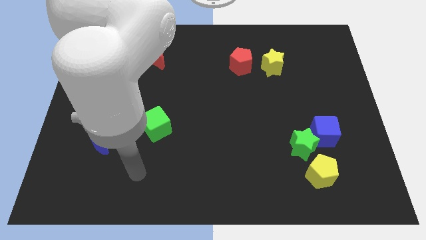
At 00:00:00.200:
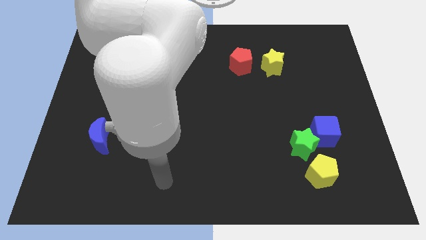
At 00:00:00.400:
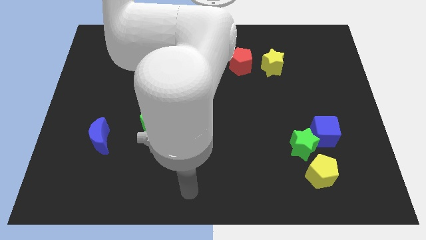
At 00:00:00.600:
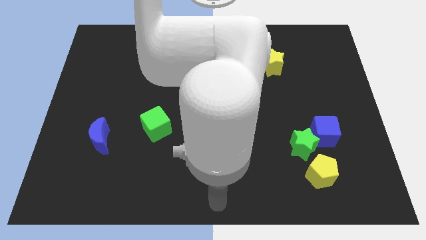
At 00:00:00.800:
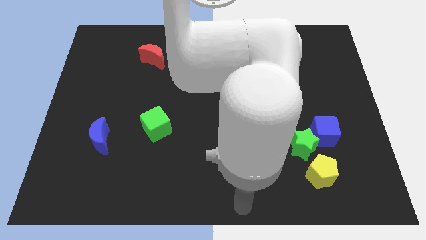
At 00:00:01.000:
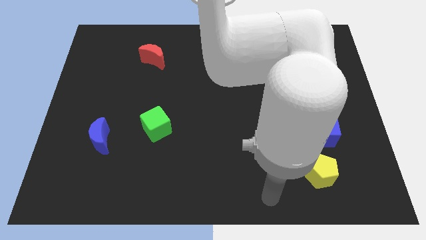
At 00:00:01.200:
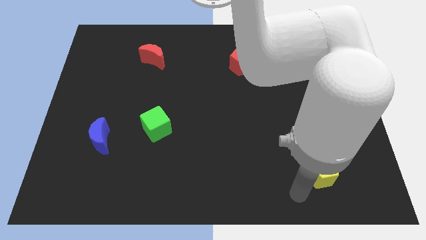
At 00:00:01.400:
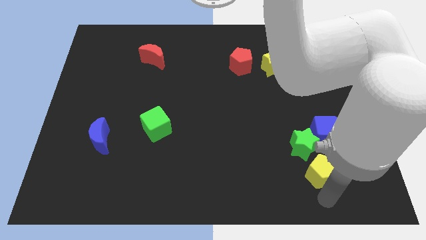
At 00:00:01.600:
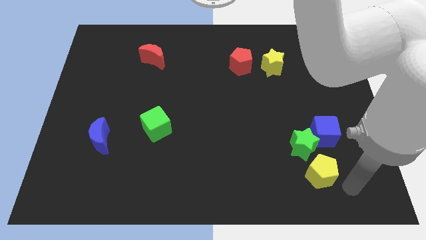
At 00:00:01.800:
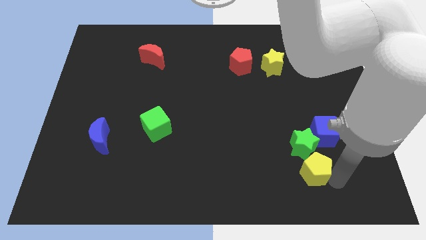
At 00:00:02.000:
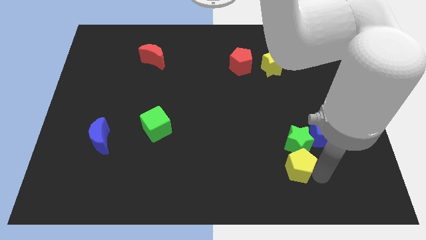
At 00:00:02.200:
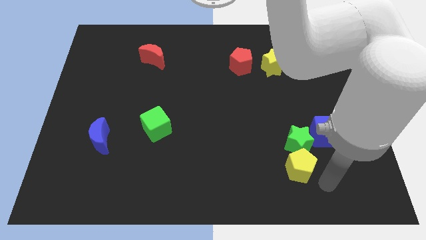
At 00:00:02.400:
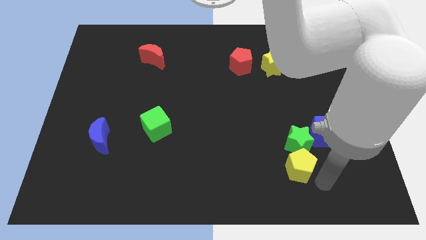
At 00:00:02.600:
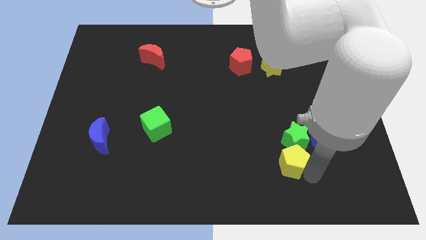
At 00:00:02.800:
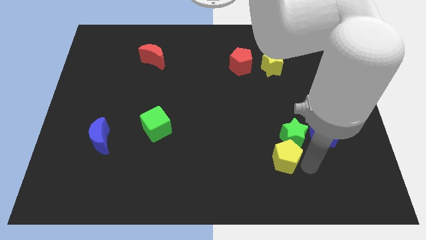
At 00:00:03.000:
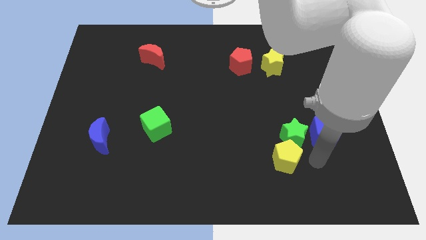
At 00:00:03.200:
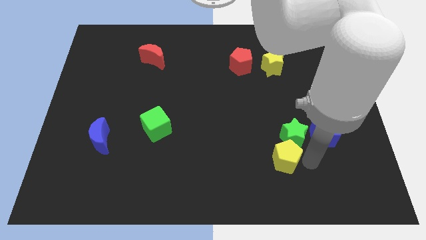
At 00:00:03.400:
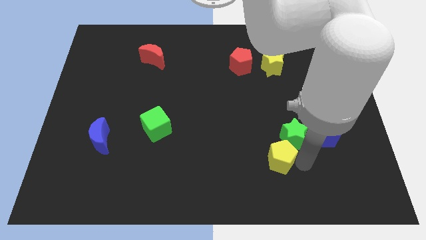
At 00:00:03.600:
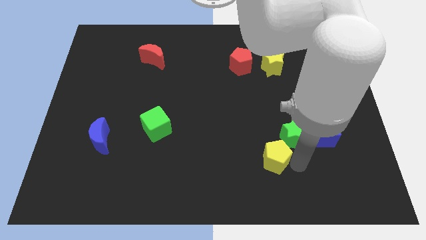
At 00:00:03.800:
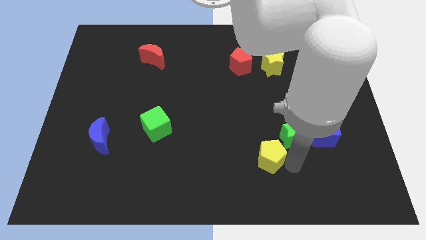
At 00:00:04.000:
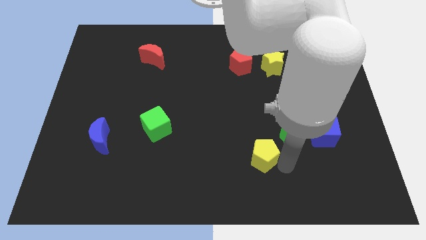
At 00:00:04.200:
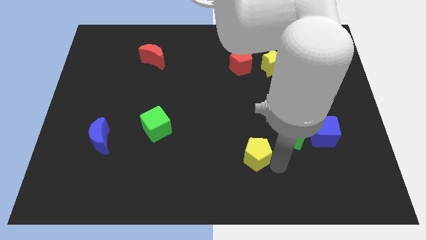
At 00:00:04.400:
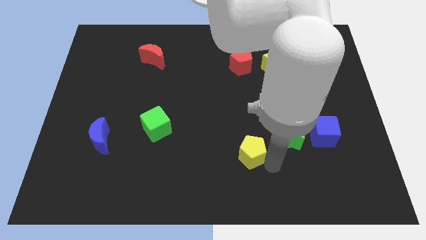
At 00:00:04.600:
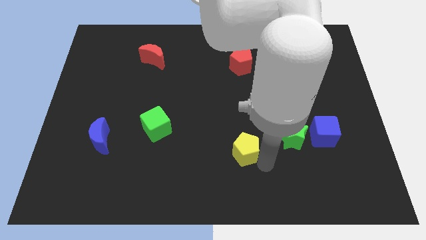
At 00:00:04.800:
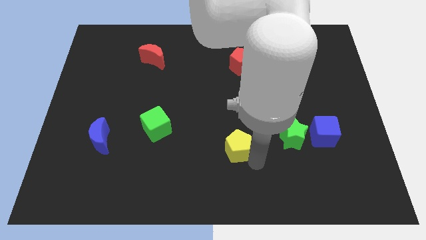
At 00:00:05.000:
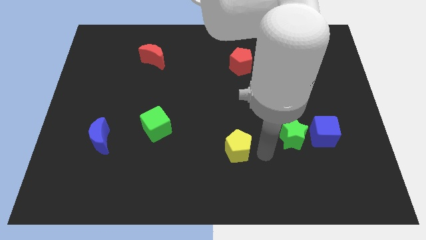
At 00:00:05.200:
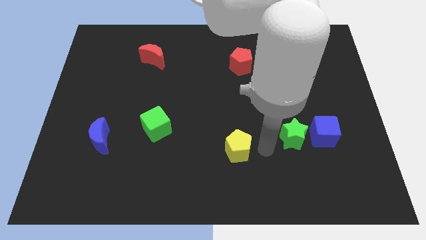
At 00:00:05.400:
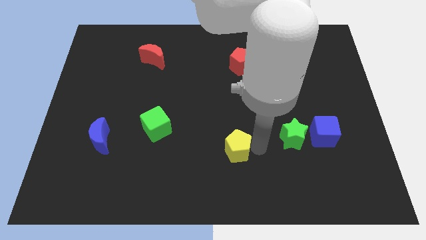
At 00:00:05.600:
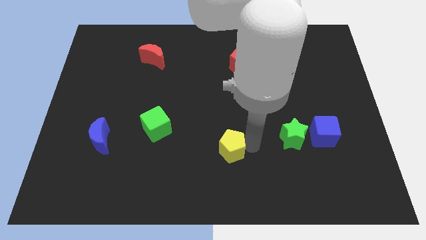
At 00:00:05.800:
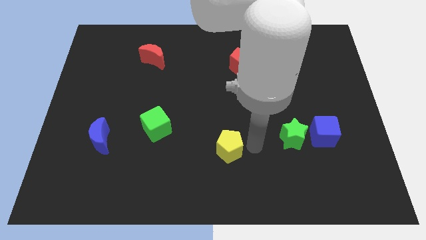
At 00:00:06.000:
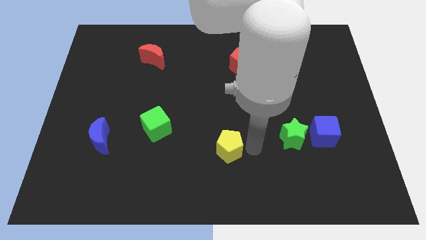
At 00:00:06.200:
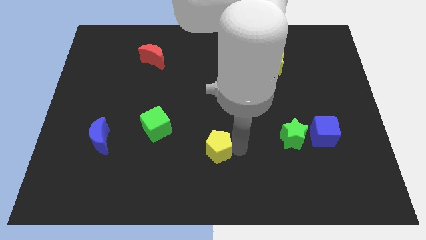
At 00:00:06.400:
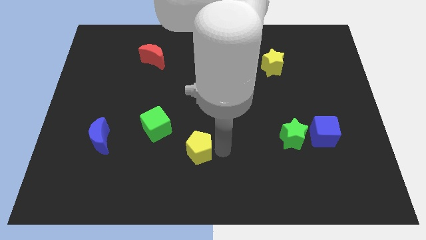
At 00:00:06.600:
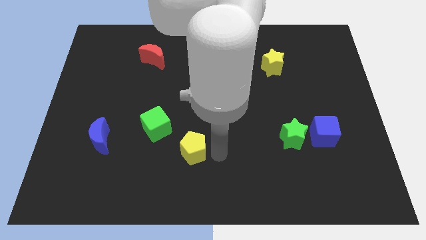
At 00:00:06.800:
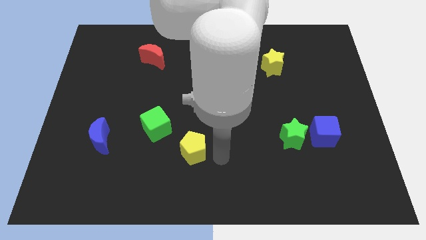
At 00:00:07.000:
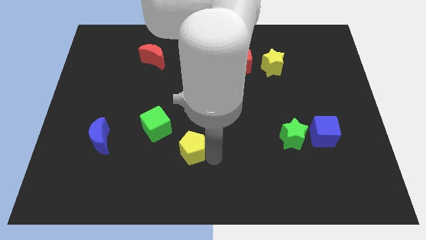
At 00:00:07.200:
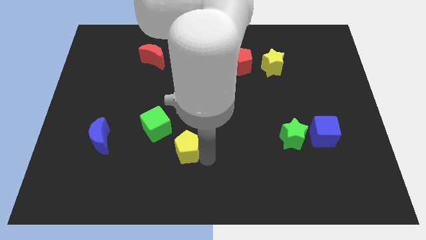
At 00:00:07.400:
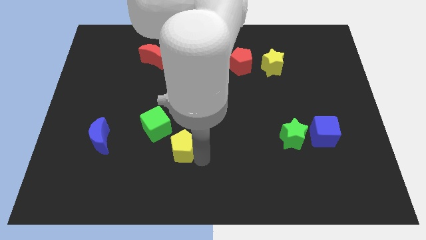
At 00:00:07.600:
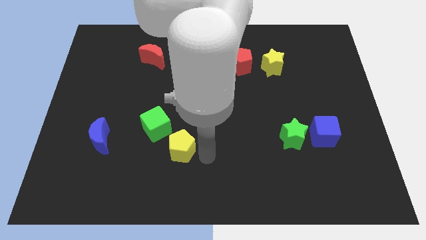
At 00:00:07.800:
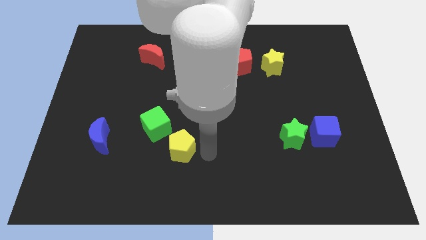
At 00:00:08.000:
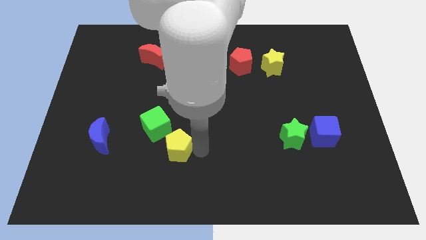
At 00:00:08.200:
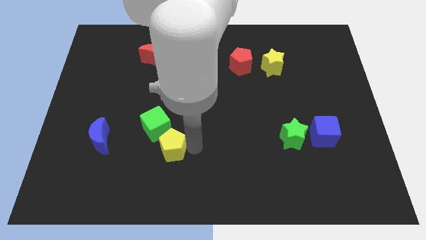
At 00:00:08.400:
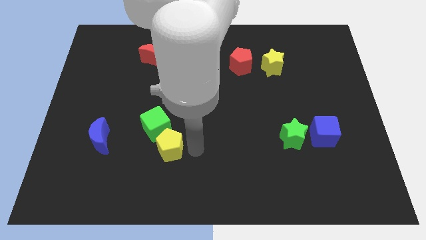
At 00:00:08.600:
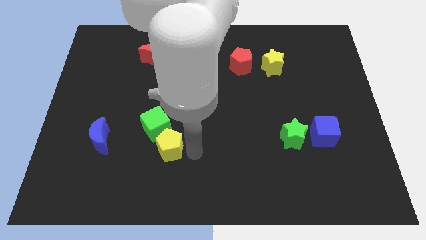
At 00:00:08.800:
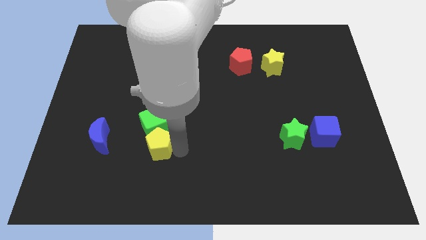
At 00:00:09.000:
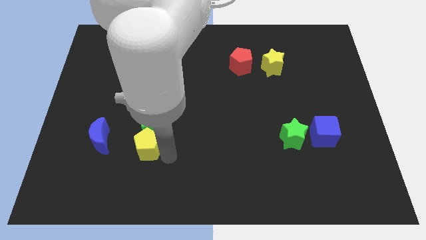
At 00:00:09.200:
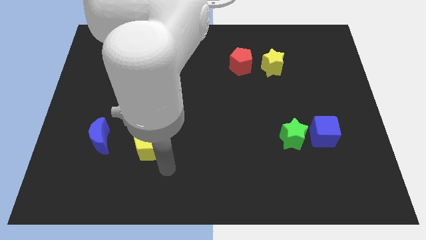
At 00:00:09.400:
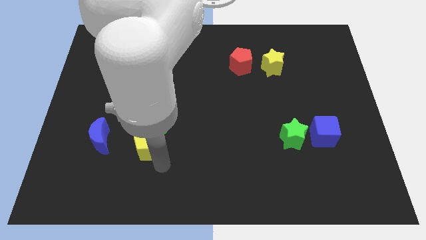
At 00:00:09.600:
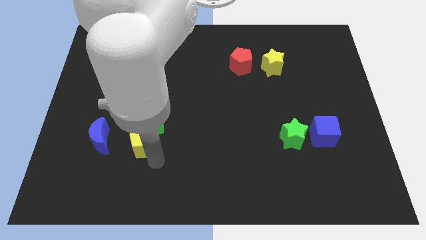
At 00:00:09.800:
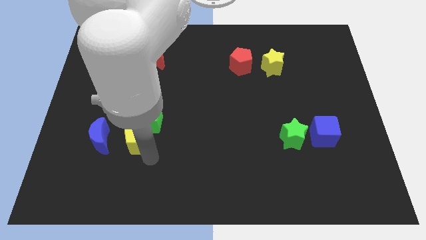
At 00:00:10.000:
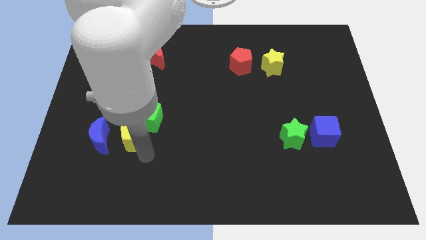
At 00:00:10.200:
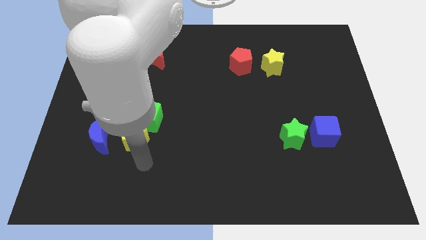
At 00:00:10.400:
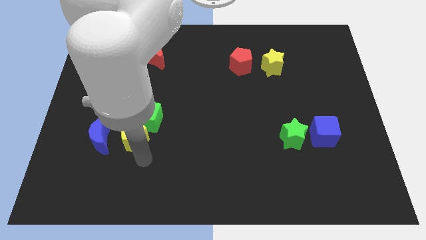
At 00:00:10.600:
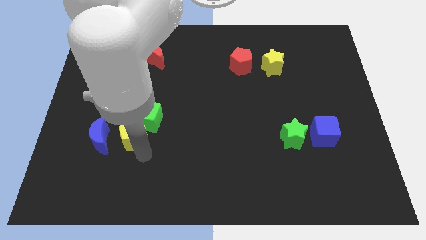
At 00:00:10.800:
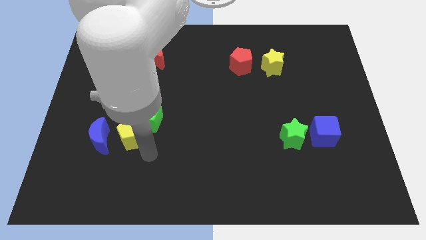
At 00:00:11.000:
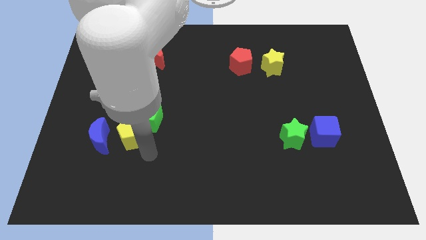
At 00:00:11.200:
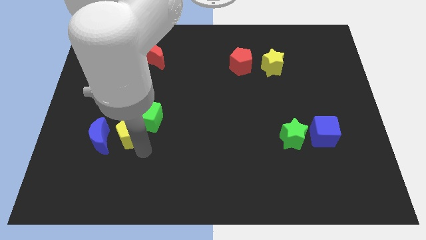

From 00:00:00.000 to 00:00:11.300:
slide the yellow pentagon to the left side of the green cube

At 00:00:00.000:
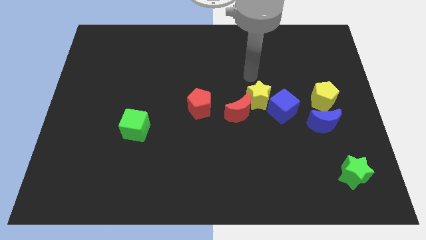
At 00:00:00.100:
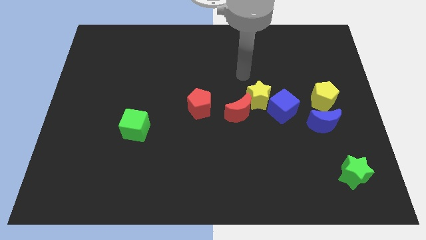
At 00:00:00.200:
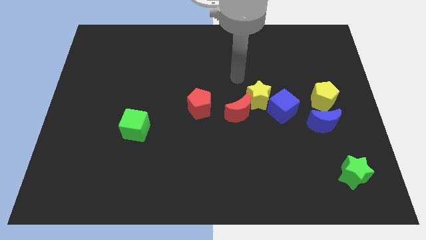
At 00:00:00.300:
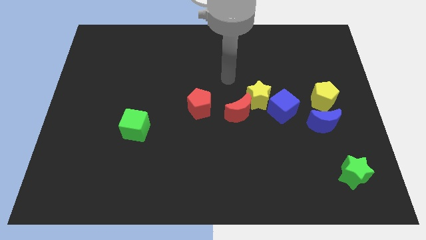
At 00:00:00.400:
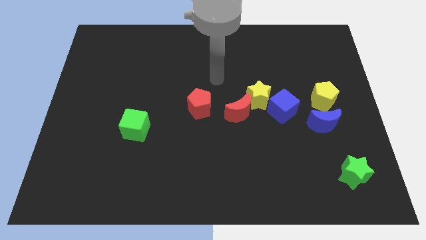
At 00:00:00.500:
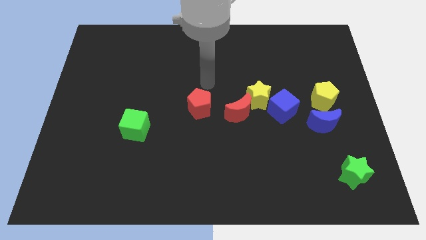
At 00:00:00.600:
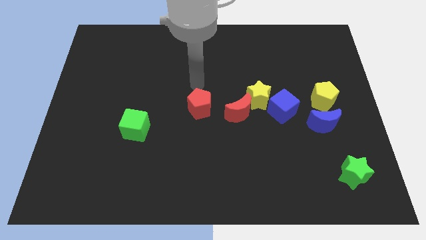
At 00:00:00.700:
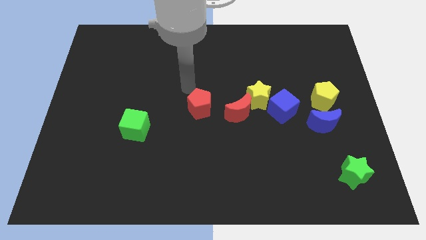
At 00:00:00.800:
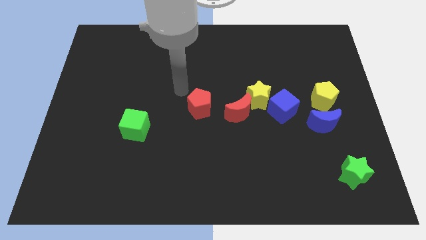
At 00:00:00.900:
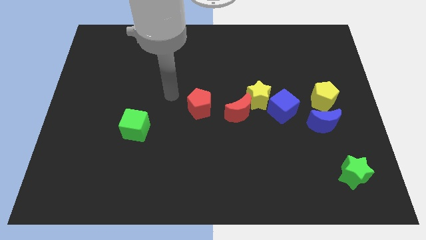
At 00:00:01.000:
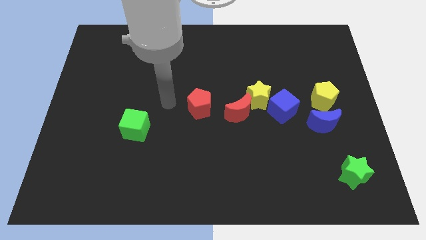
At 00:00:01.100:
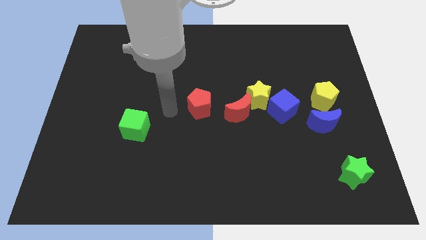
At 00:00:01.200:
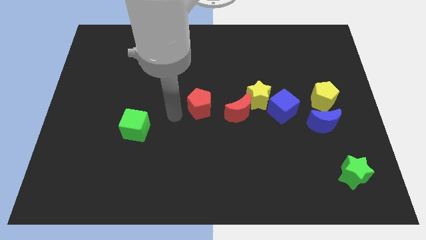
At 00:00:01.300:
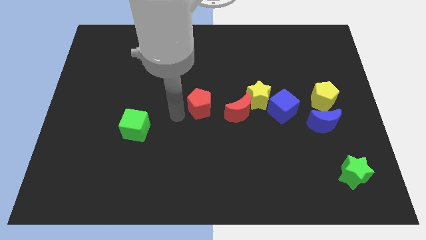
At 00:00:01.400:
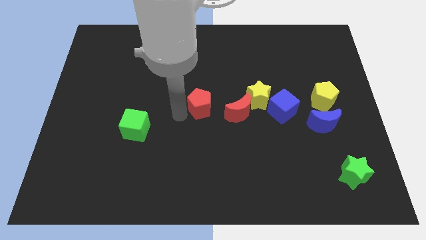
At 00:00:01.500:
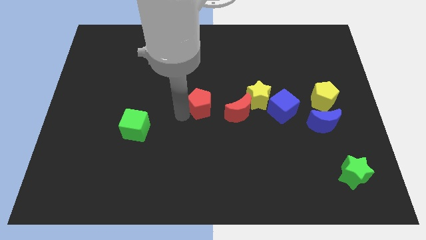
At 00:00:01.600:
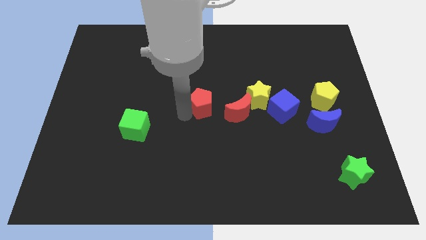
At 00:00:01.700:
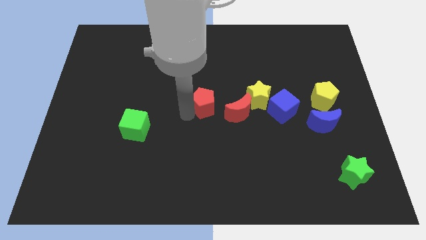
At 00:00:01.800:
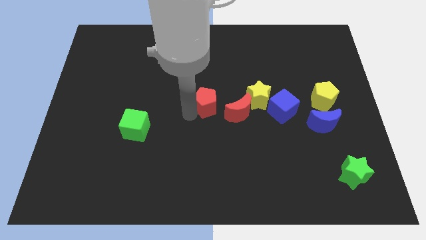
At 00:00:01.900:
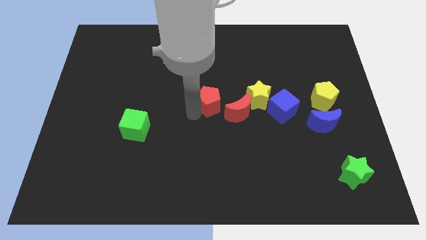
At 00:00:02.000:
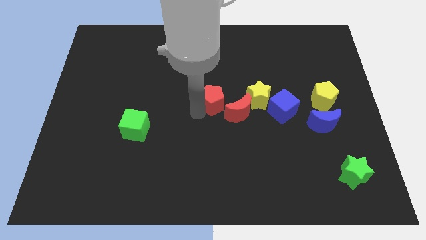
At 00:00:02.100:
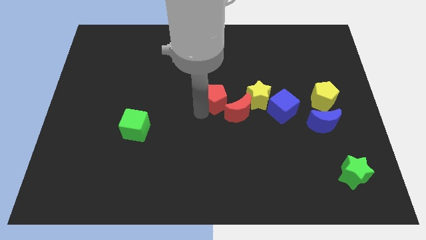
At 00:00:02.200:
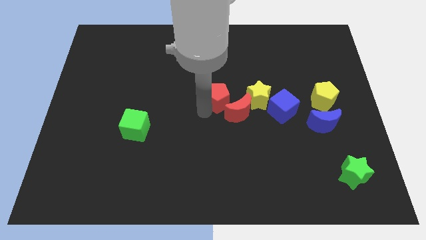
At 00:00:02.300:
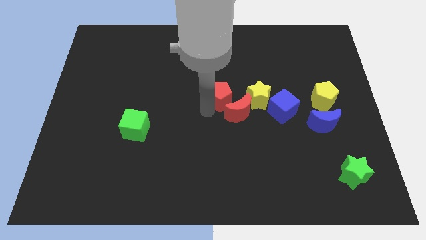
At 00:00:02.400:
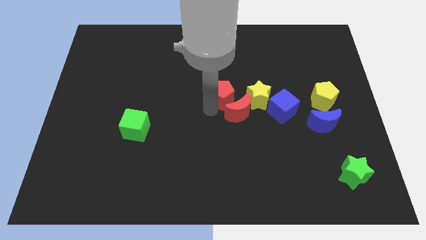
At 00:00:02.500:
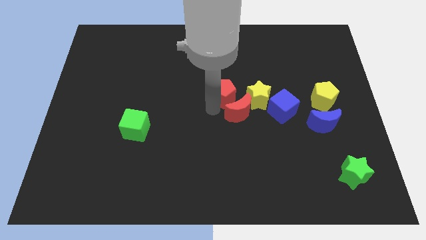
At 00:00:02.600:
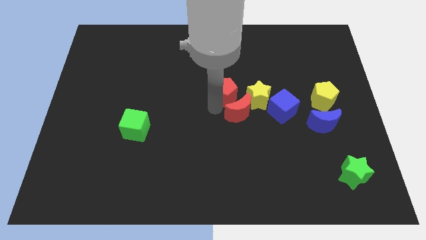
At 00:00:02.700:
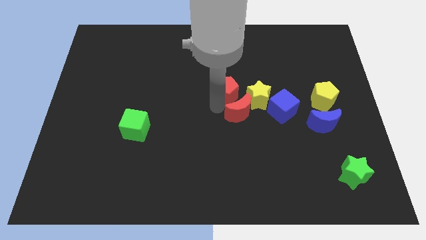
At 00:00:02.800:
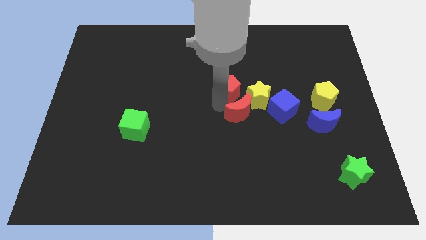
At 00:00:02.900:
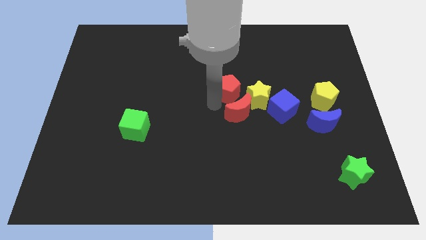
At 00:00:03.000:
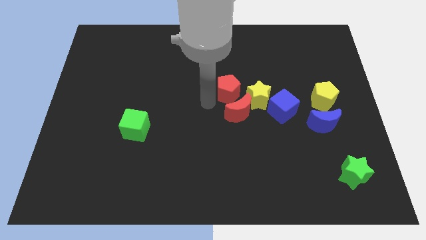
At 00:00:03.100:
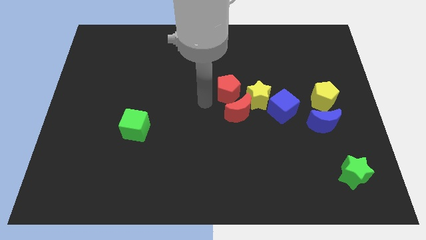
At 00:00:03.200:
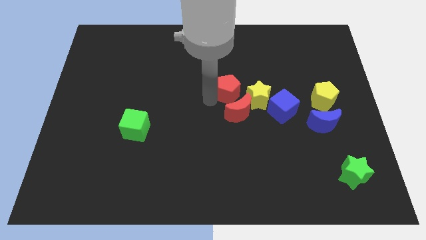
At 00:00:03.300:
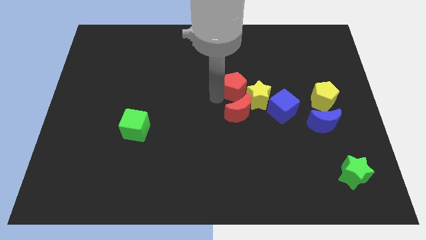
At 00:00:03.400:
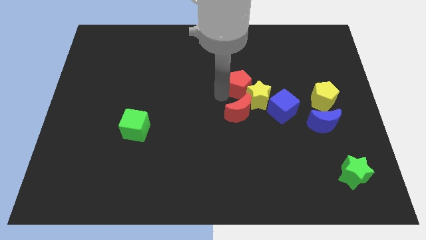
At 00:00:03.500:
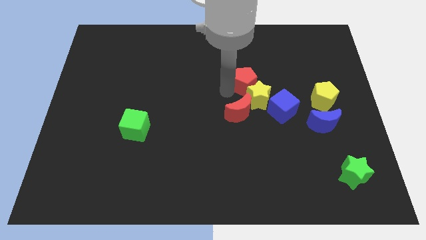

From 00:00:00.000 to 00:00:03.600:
move the red pentagon to the top right side of the red moon
